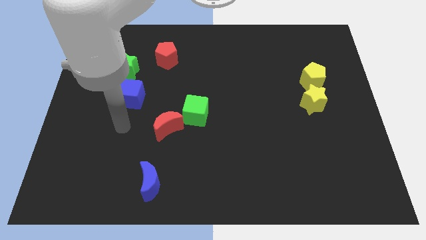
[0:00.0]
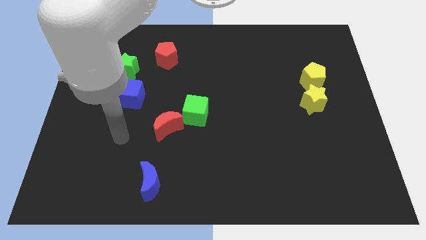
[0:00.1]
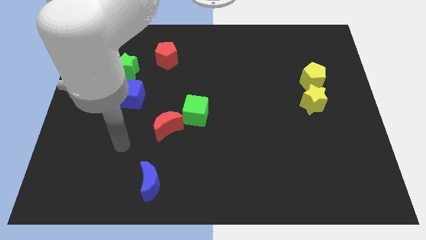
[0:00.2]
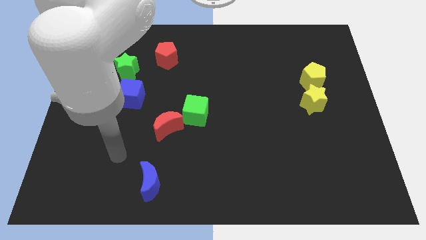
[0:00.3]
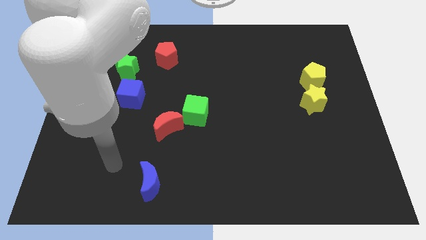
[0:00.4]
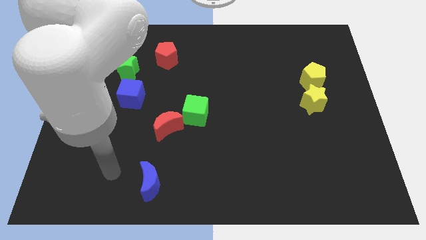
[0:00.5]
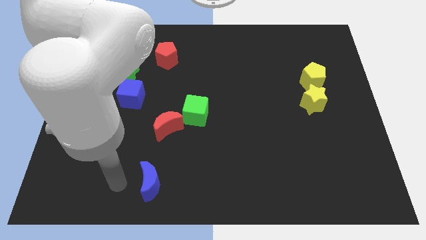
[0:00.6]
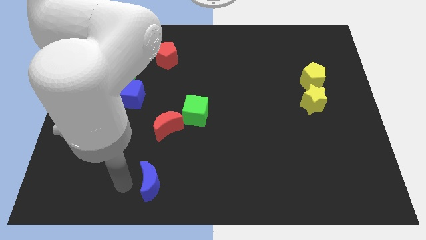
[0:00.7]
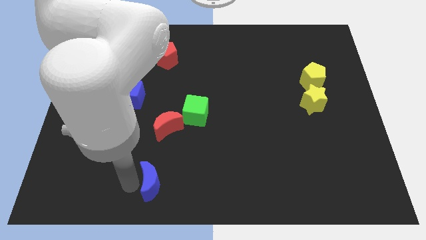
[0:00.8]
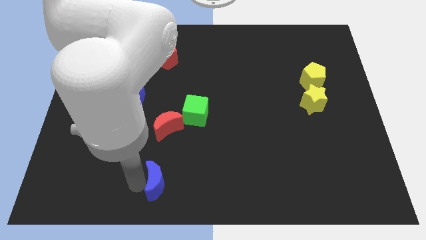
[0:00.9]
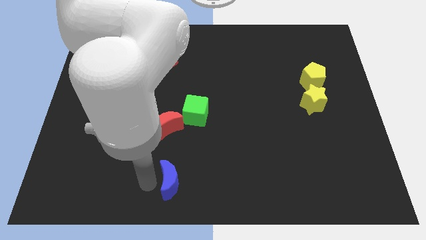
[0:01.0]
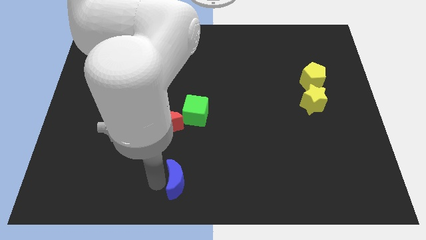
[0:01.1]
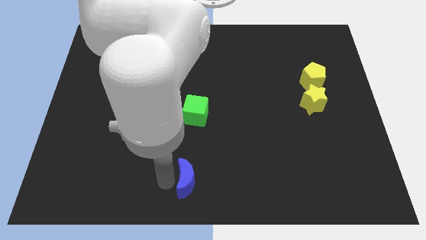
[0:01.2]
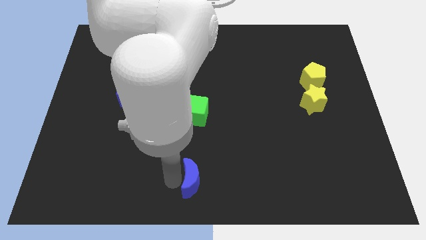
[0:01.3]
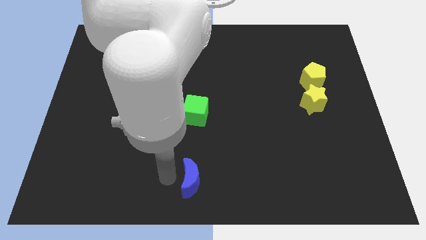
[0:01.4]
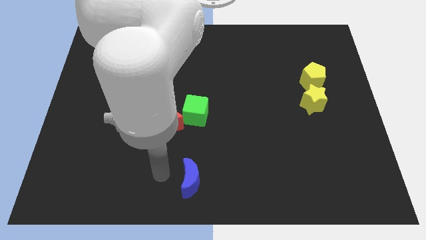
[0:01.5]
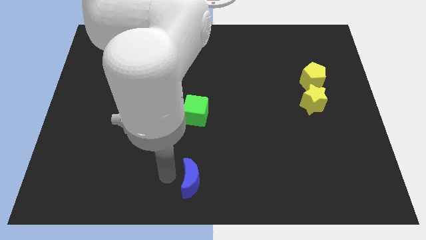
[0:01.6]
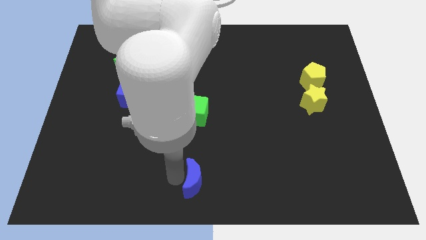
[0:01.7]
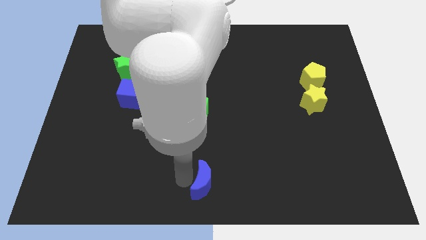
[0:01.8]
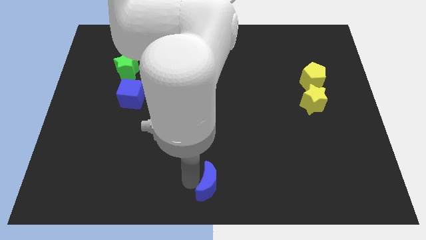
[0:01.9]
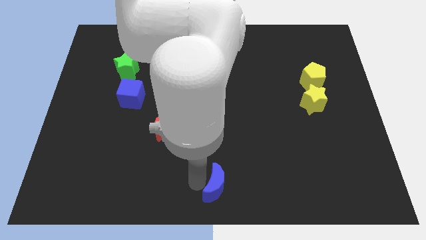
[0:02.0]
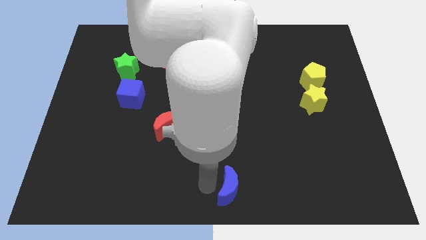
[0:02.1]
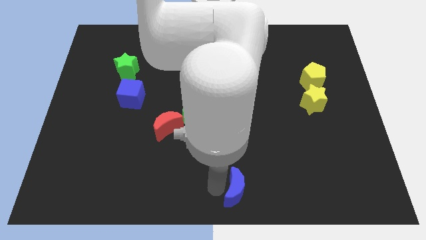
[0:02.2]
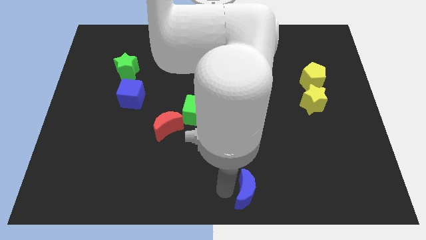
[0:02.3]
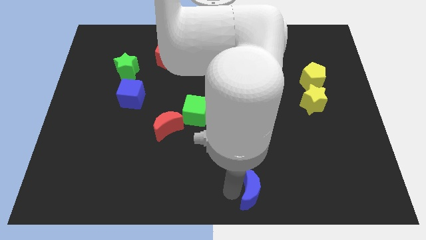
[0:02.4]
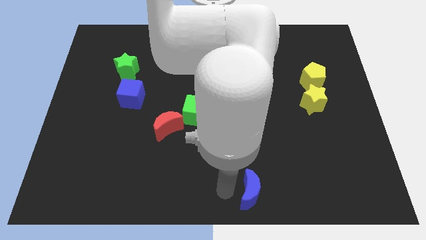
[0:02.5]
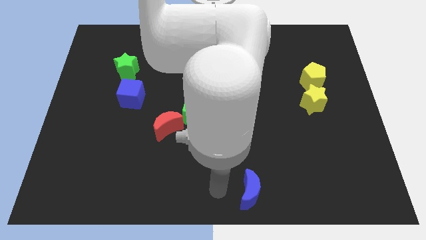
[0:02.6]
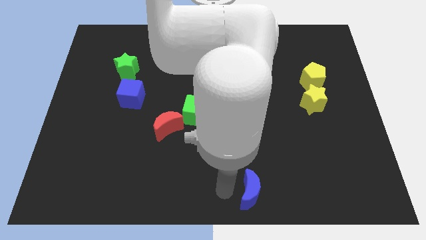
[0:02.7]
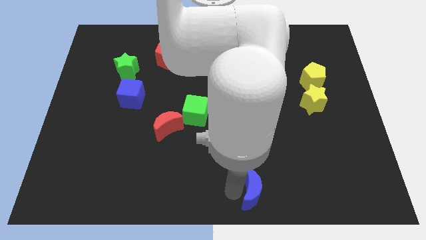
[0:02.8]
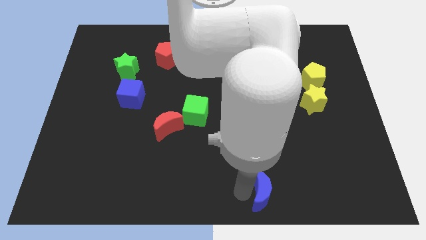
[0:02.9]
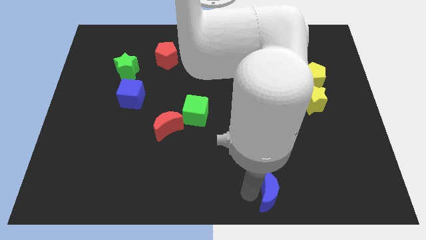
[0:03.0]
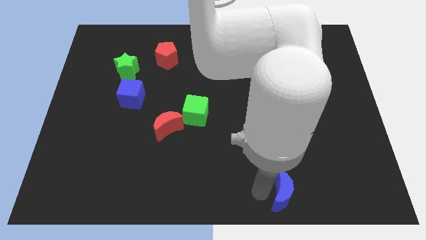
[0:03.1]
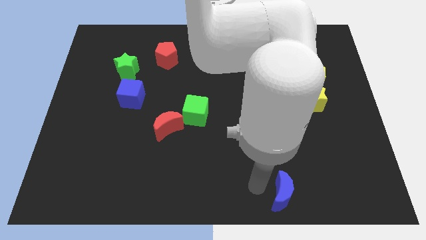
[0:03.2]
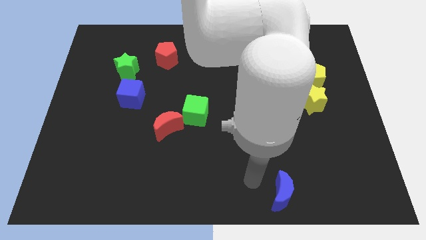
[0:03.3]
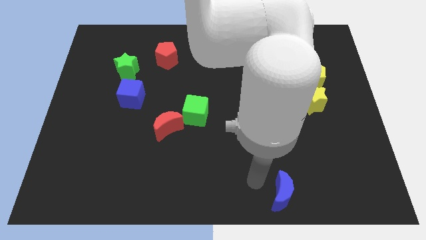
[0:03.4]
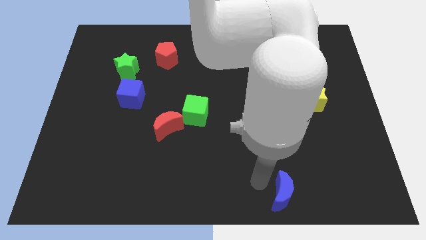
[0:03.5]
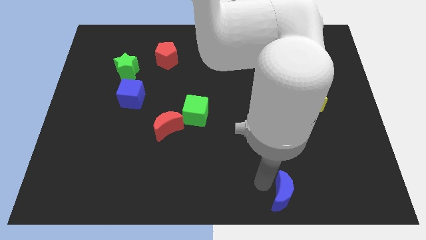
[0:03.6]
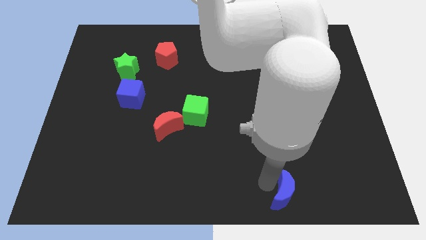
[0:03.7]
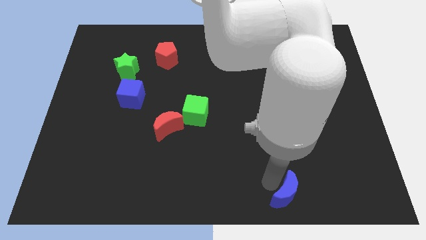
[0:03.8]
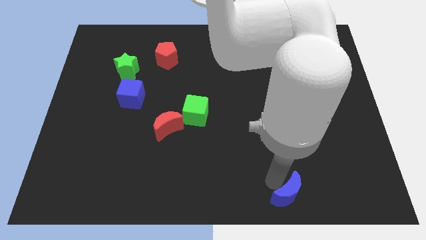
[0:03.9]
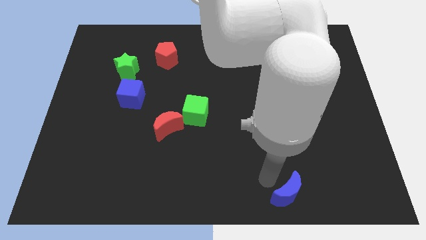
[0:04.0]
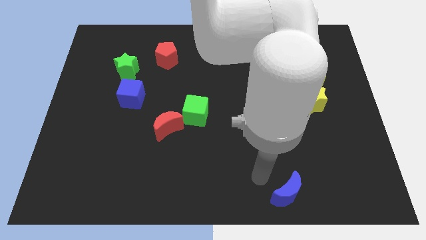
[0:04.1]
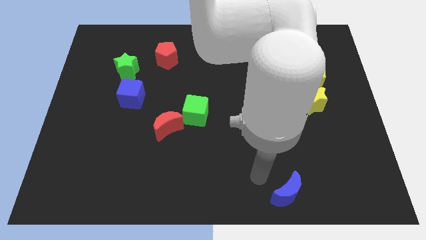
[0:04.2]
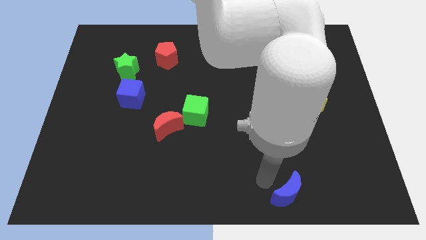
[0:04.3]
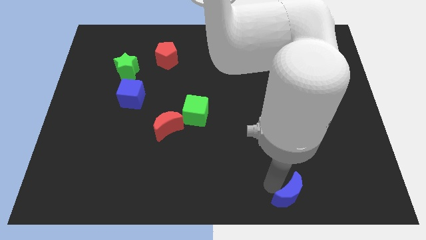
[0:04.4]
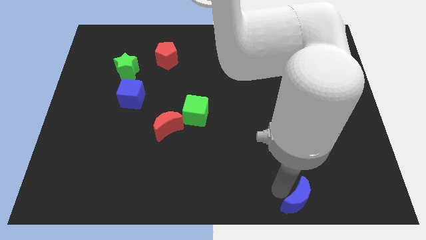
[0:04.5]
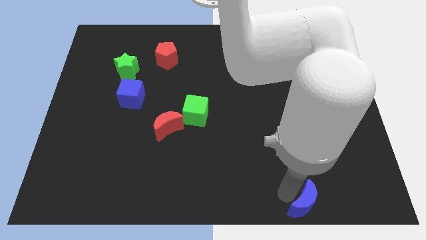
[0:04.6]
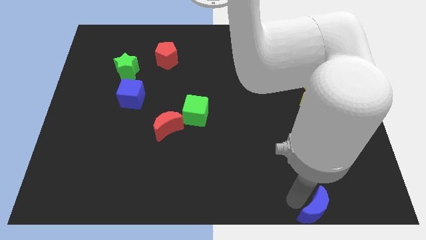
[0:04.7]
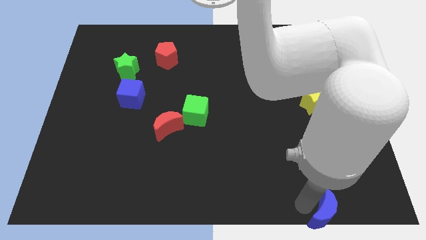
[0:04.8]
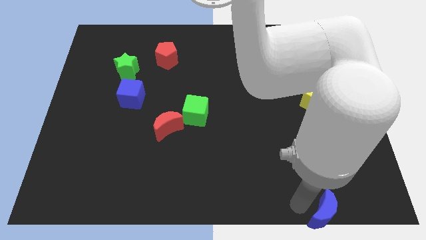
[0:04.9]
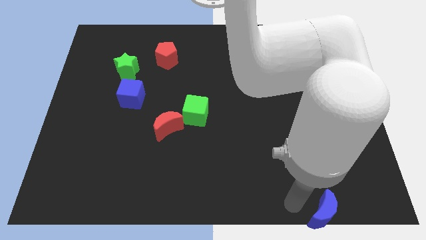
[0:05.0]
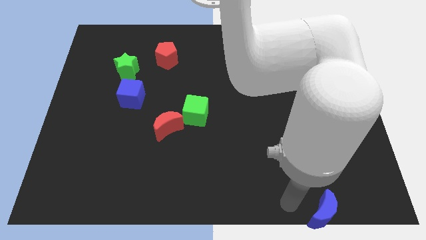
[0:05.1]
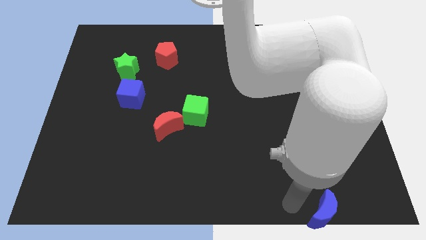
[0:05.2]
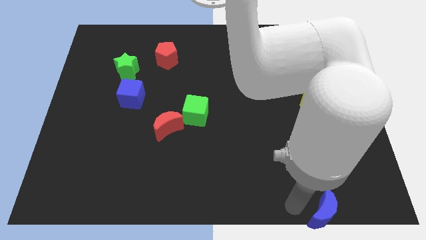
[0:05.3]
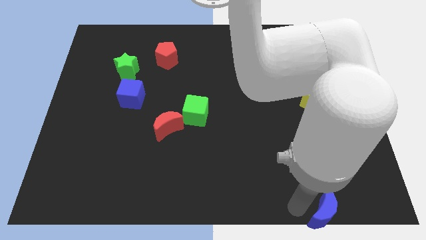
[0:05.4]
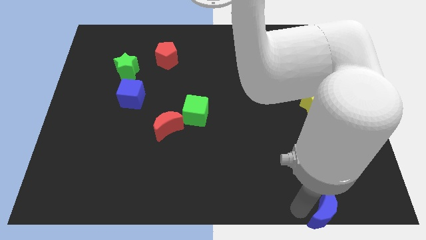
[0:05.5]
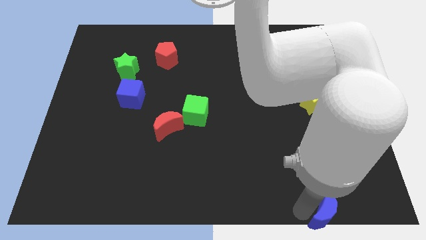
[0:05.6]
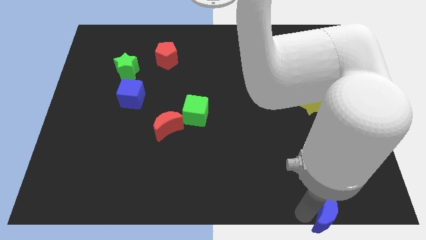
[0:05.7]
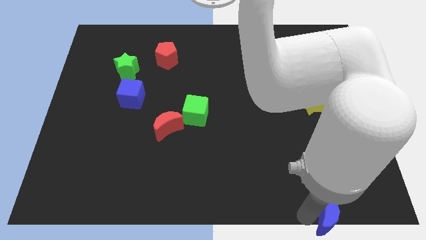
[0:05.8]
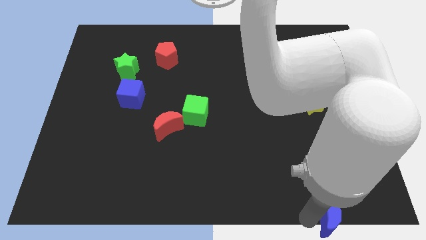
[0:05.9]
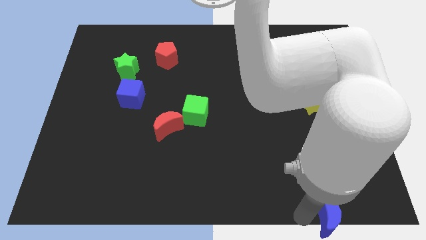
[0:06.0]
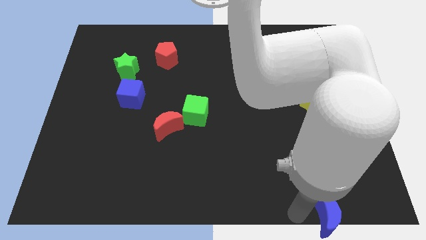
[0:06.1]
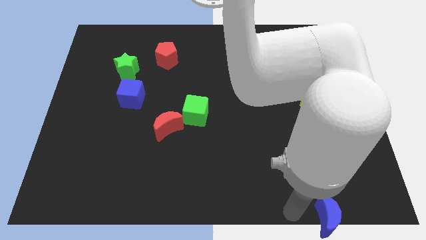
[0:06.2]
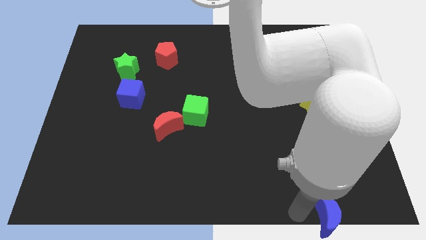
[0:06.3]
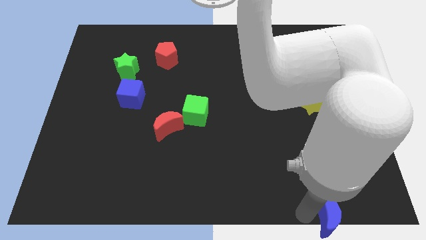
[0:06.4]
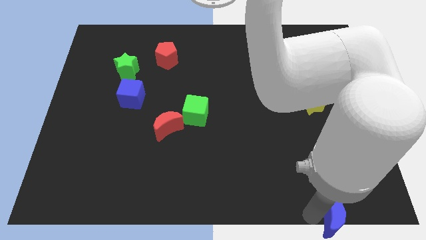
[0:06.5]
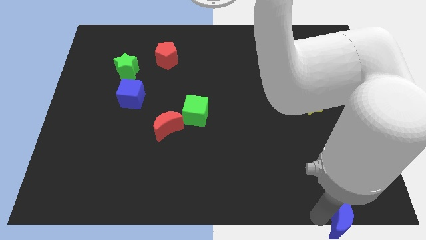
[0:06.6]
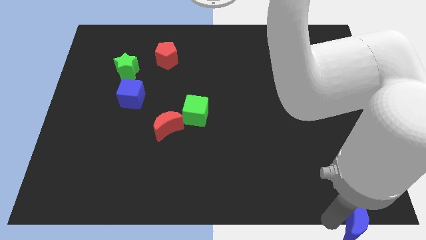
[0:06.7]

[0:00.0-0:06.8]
slide the blue moon to the bottom right
